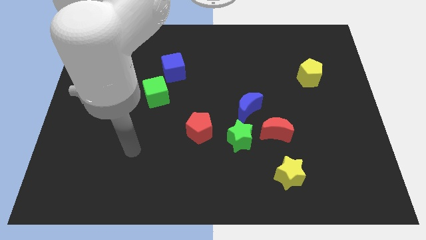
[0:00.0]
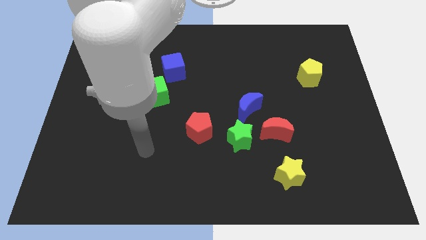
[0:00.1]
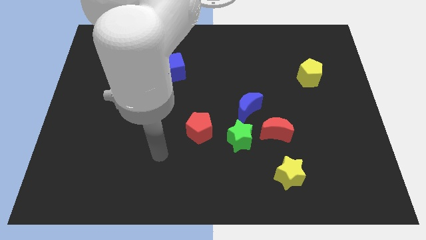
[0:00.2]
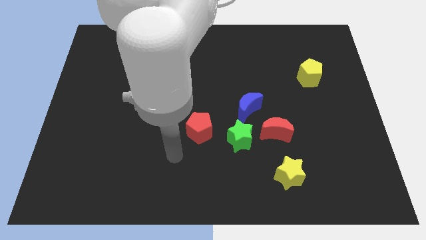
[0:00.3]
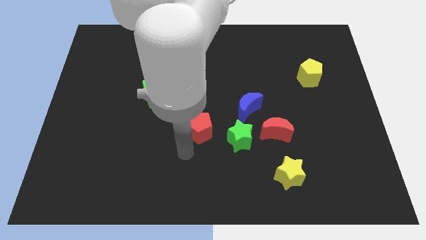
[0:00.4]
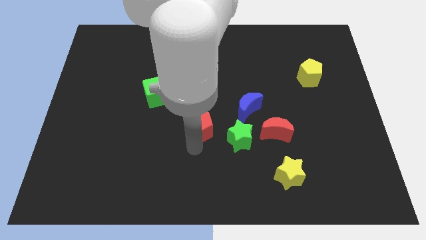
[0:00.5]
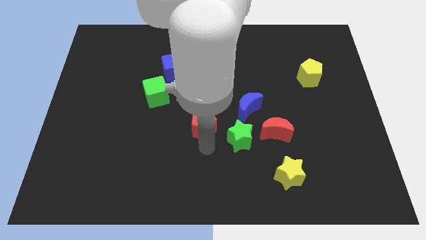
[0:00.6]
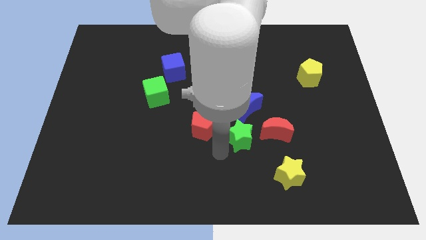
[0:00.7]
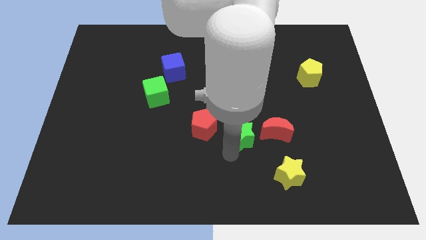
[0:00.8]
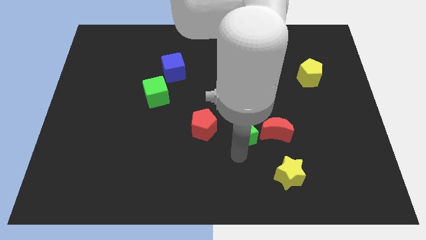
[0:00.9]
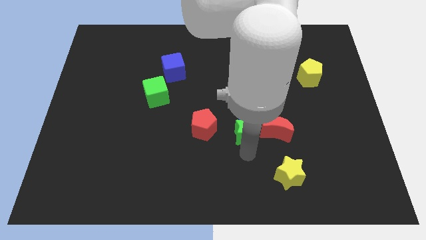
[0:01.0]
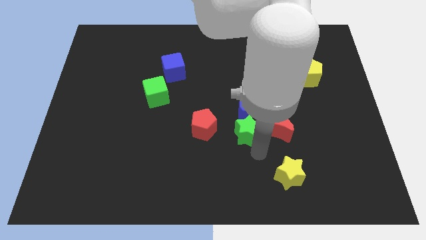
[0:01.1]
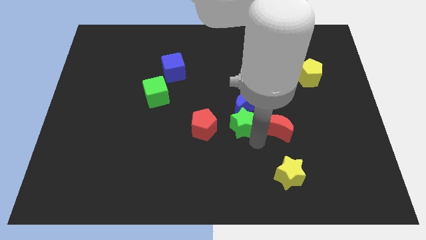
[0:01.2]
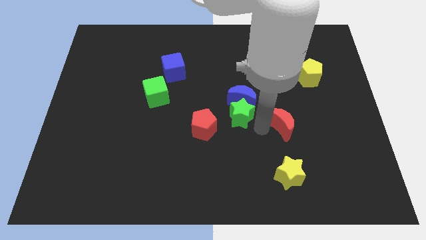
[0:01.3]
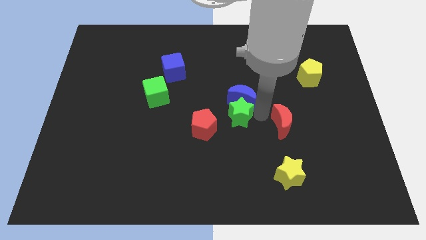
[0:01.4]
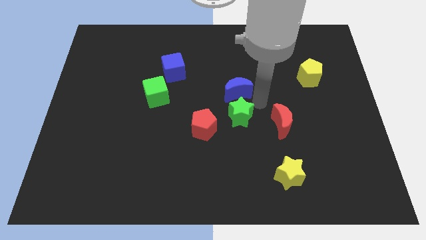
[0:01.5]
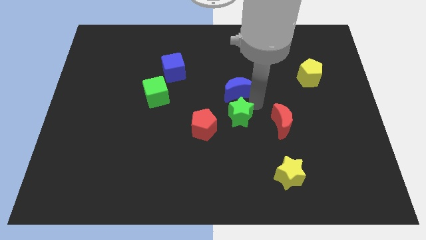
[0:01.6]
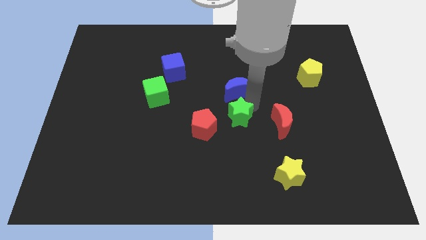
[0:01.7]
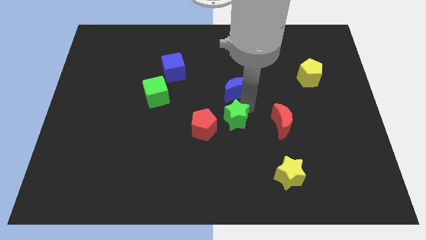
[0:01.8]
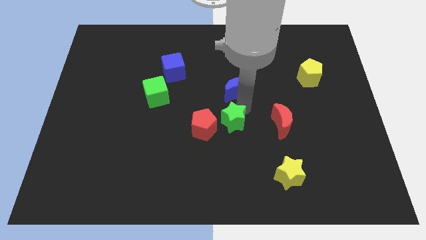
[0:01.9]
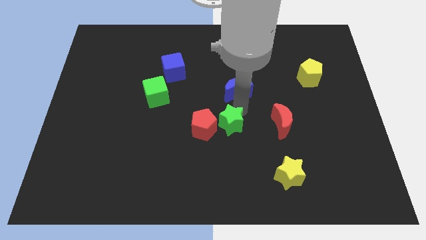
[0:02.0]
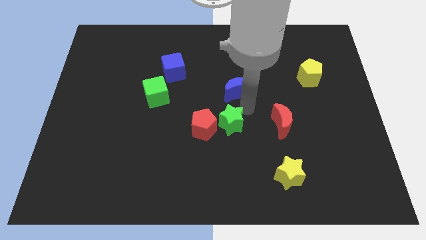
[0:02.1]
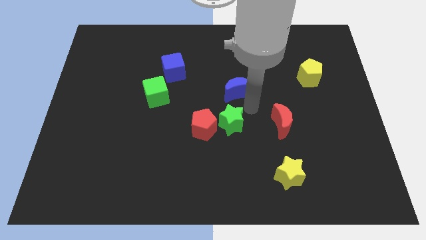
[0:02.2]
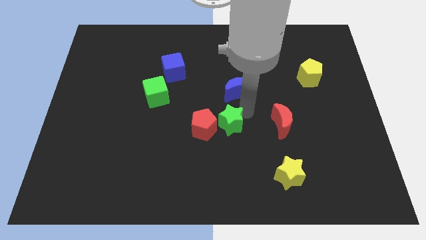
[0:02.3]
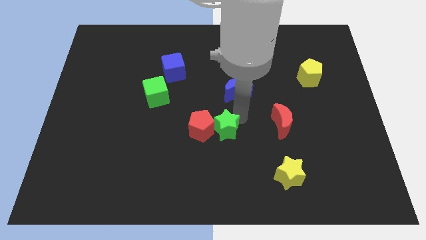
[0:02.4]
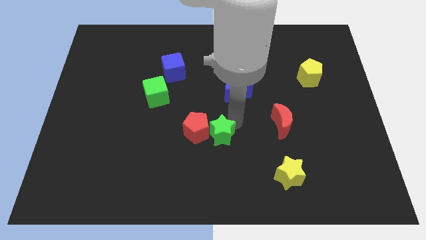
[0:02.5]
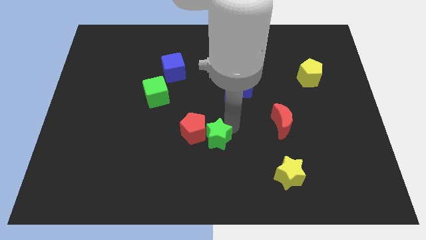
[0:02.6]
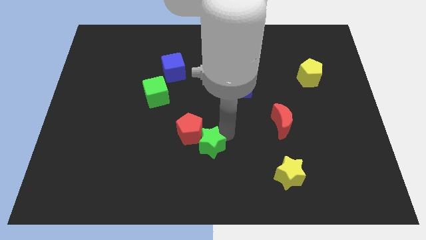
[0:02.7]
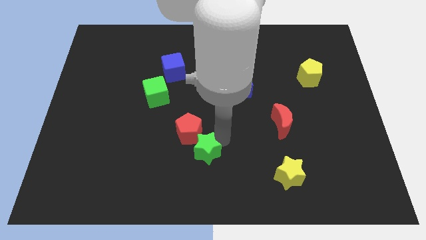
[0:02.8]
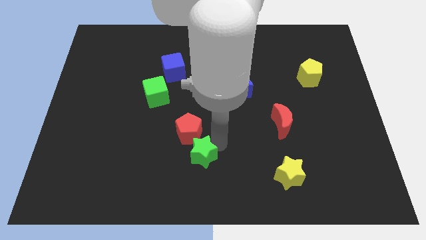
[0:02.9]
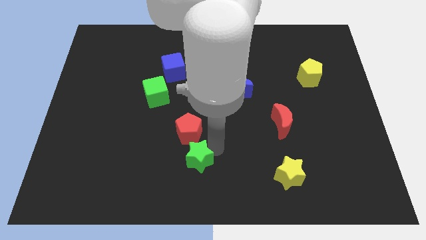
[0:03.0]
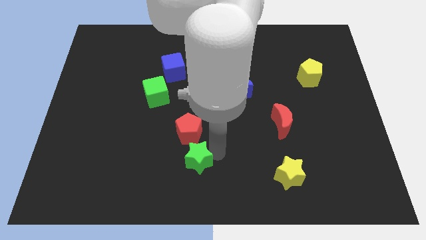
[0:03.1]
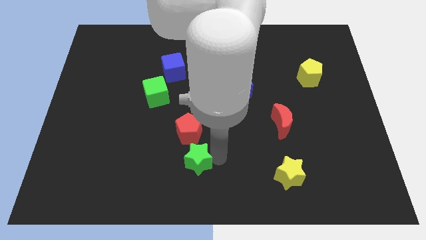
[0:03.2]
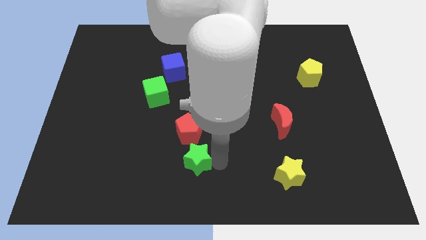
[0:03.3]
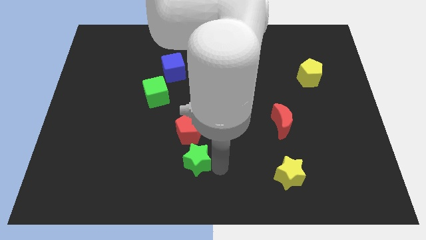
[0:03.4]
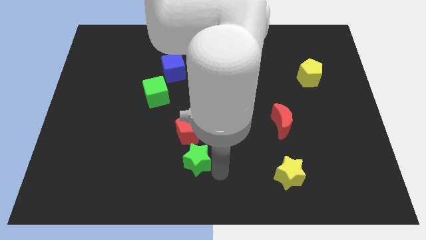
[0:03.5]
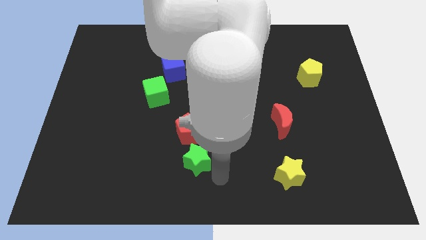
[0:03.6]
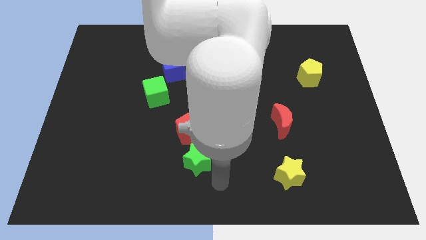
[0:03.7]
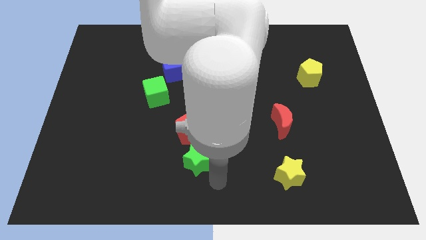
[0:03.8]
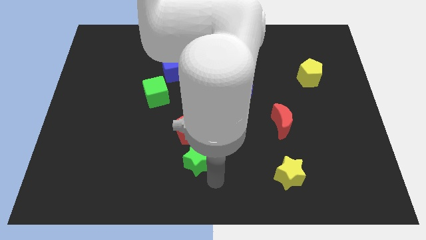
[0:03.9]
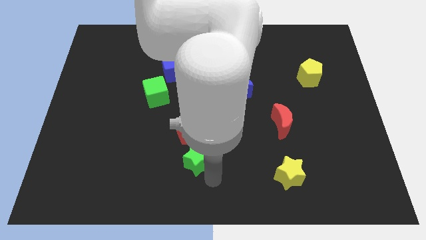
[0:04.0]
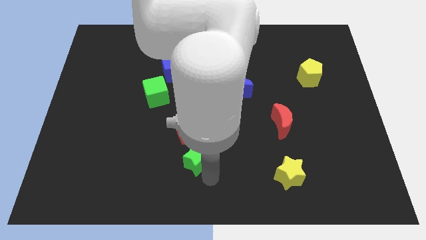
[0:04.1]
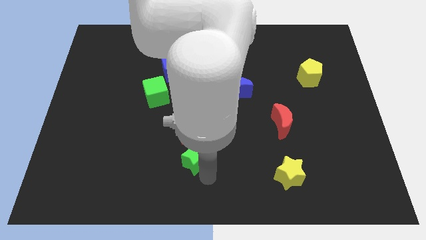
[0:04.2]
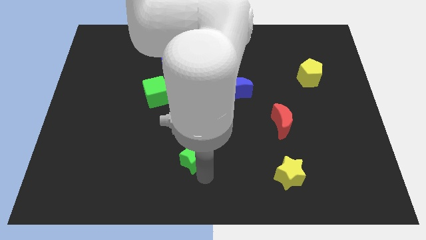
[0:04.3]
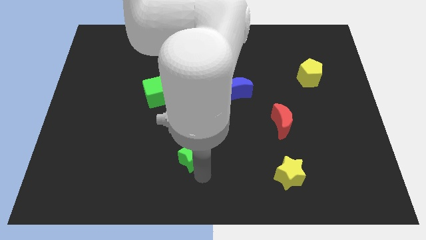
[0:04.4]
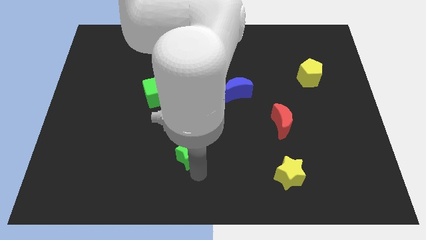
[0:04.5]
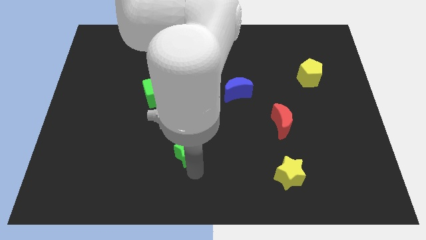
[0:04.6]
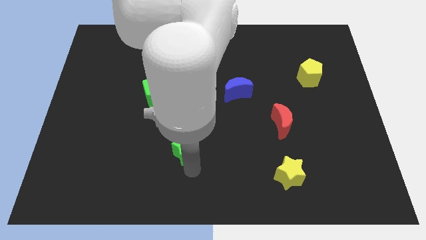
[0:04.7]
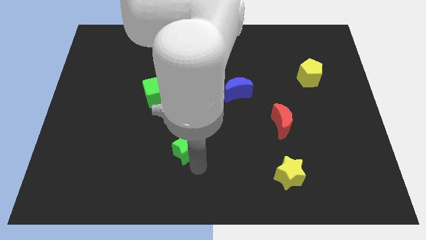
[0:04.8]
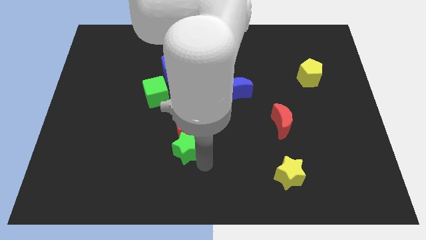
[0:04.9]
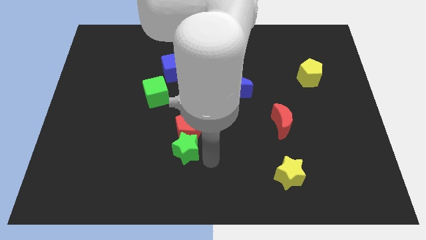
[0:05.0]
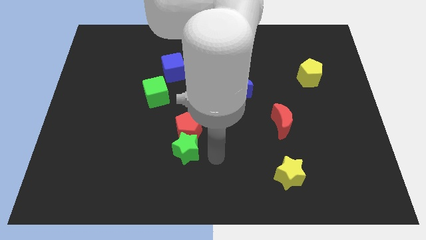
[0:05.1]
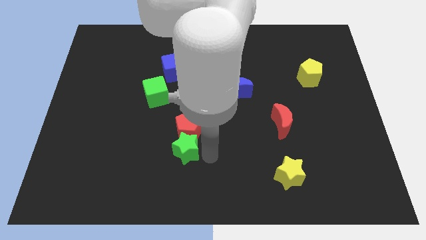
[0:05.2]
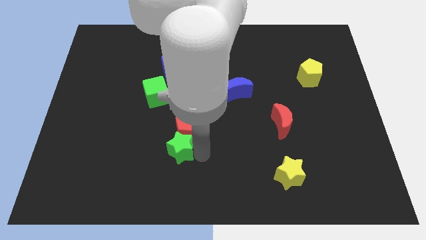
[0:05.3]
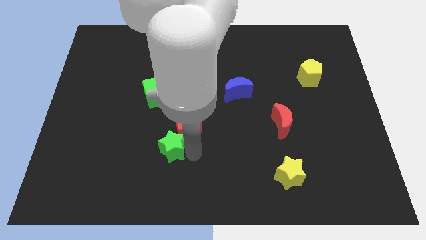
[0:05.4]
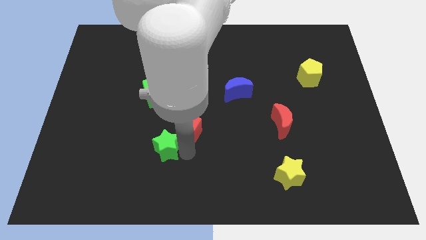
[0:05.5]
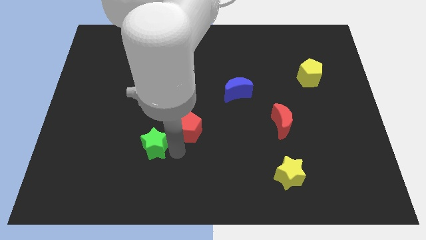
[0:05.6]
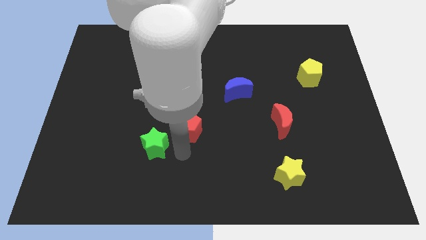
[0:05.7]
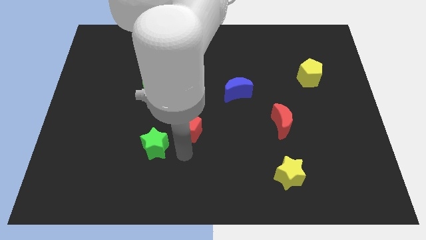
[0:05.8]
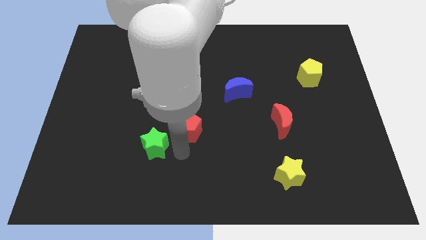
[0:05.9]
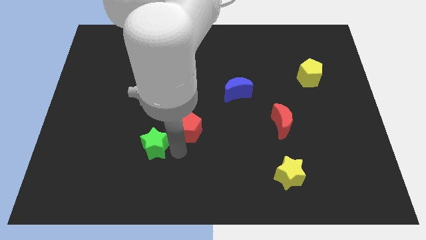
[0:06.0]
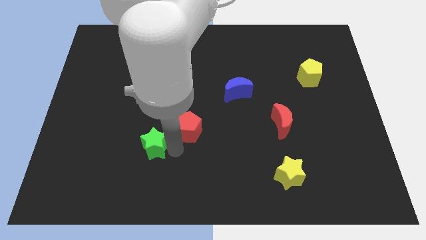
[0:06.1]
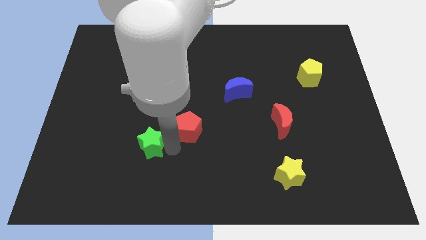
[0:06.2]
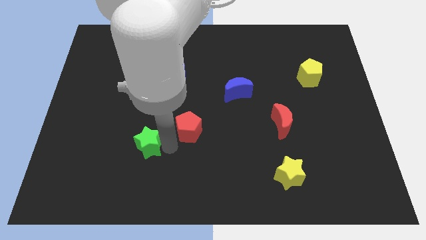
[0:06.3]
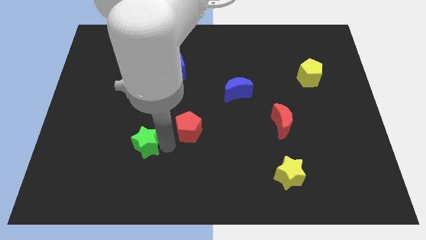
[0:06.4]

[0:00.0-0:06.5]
push the green star to the left

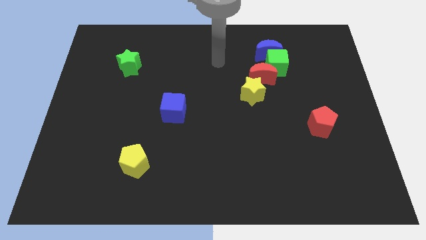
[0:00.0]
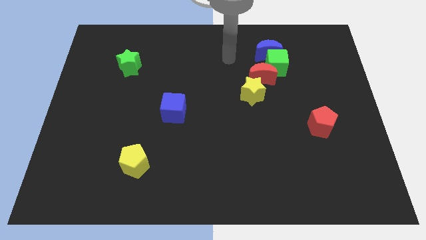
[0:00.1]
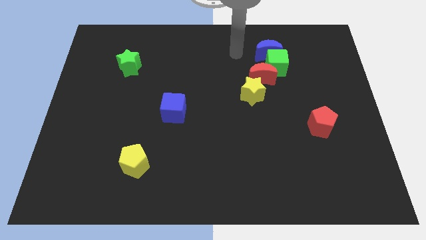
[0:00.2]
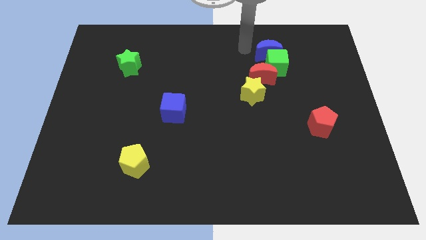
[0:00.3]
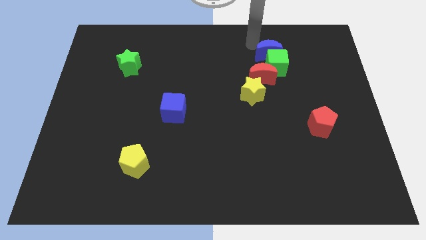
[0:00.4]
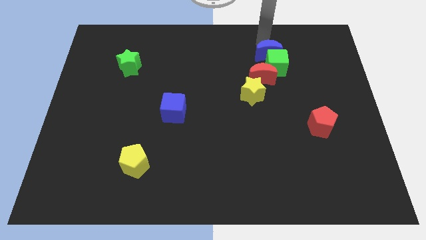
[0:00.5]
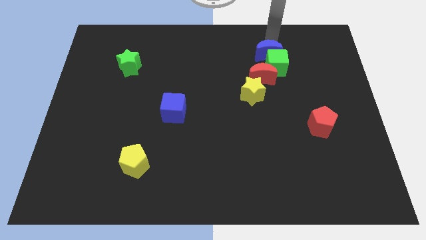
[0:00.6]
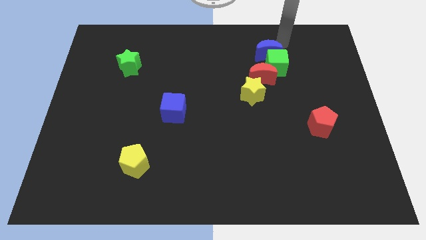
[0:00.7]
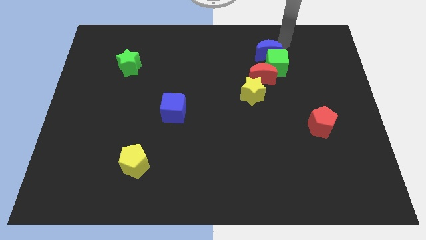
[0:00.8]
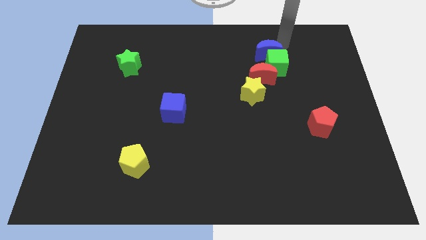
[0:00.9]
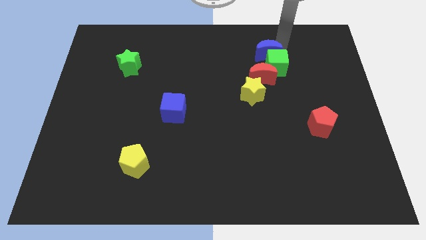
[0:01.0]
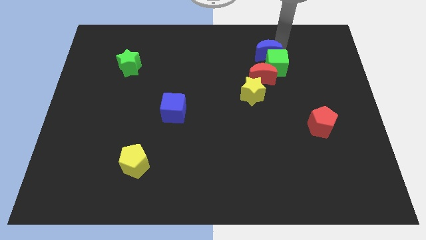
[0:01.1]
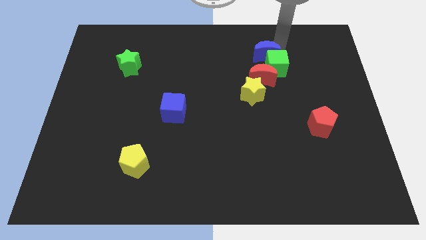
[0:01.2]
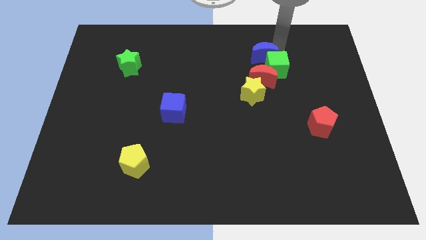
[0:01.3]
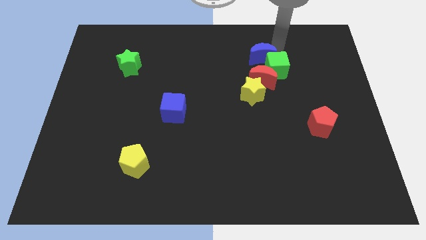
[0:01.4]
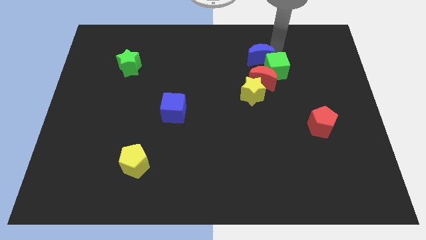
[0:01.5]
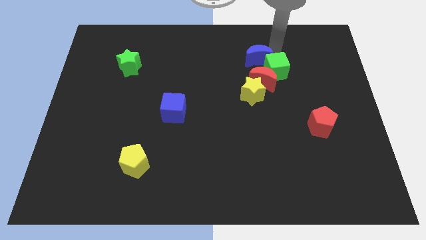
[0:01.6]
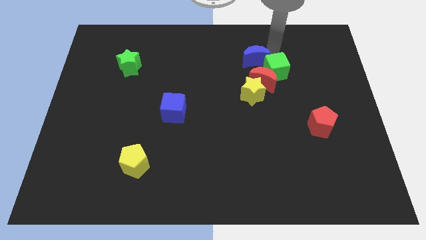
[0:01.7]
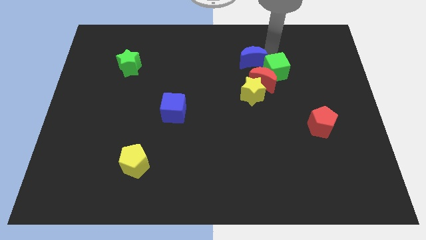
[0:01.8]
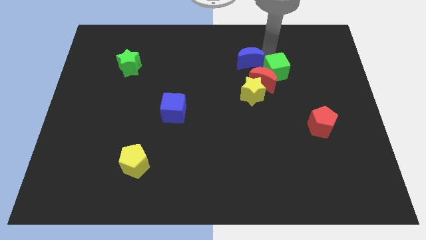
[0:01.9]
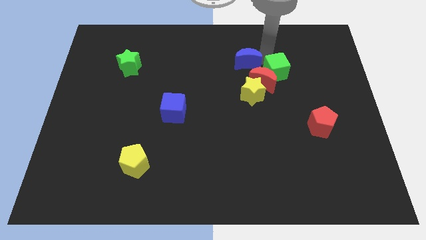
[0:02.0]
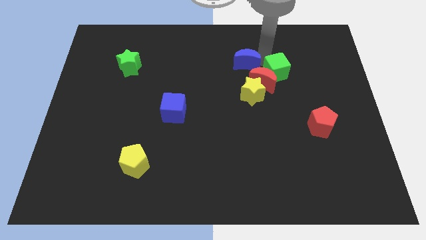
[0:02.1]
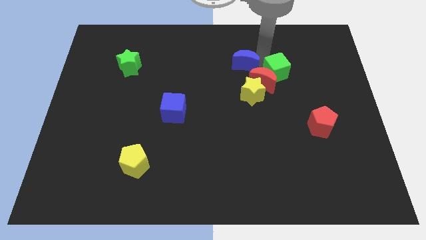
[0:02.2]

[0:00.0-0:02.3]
push the blue moon somewhat downwards and to the left
